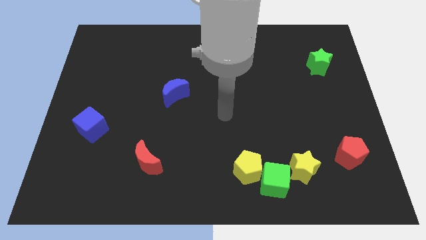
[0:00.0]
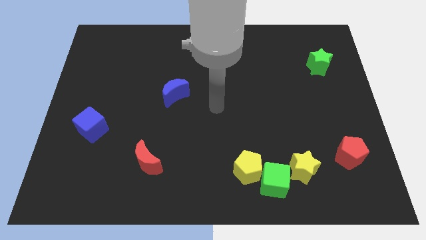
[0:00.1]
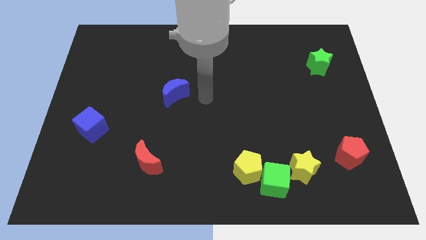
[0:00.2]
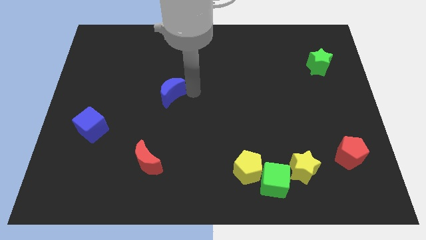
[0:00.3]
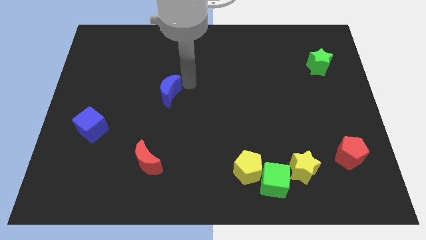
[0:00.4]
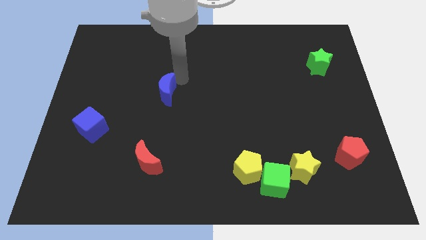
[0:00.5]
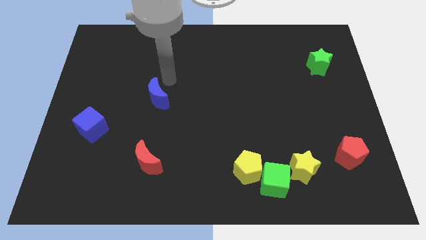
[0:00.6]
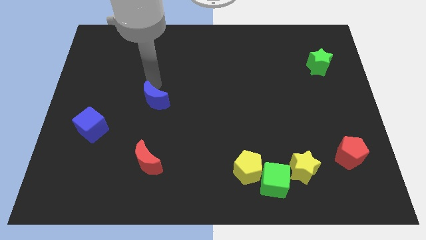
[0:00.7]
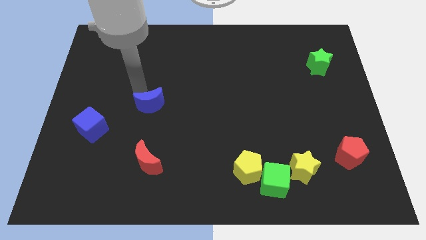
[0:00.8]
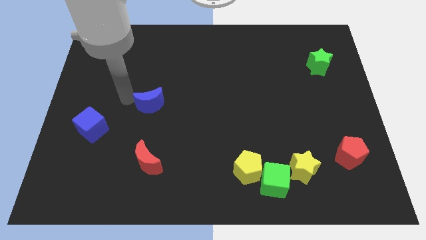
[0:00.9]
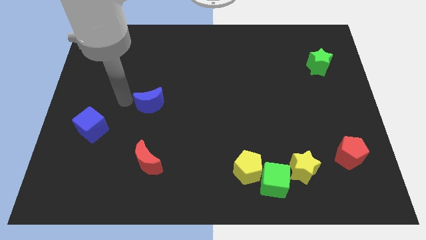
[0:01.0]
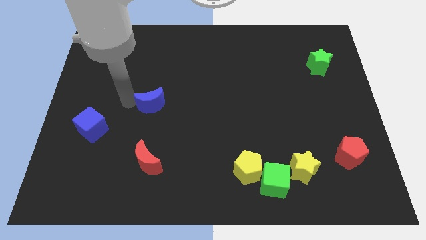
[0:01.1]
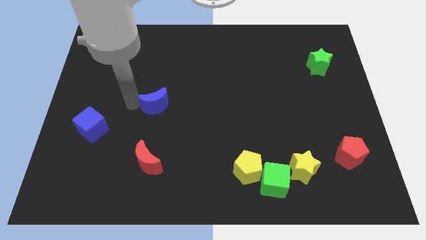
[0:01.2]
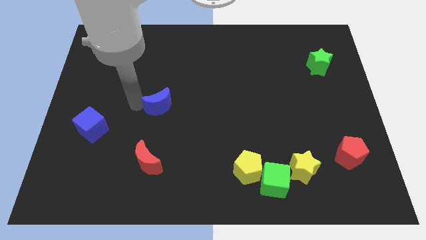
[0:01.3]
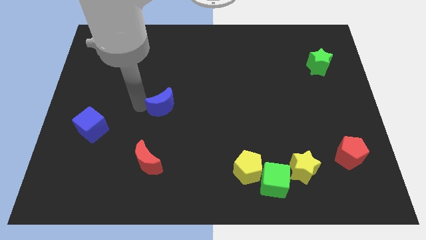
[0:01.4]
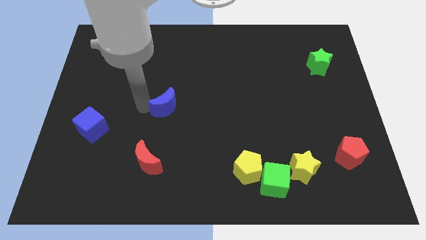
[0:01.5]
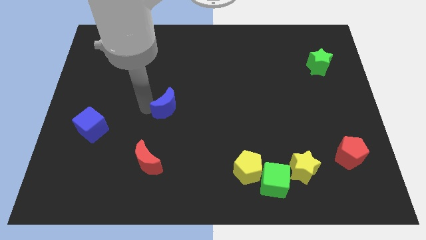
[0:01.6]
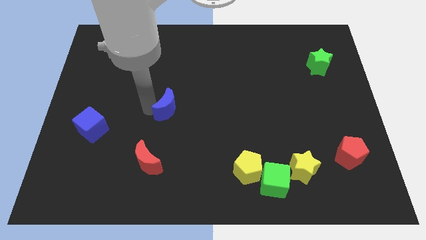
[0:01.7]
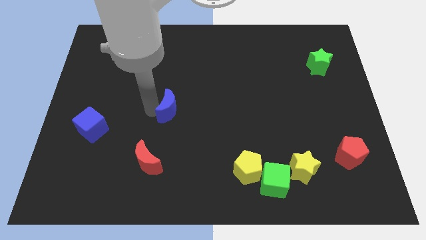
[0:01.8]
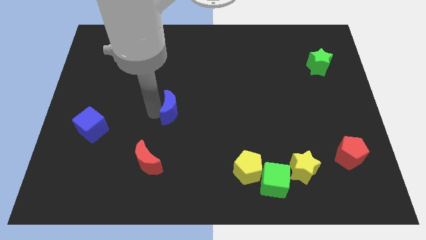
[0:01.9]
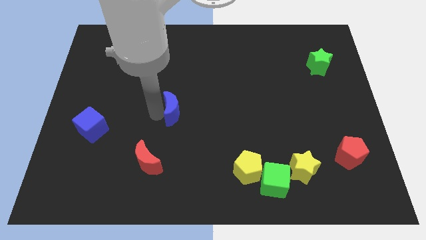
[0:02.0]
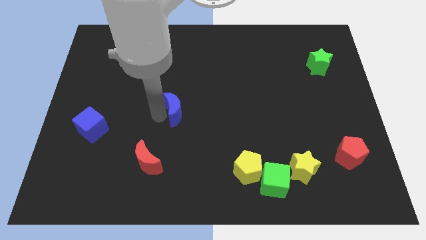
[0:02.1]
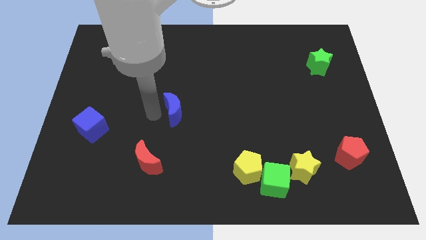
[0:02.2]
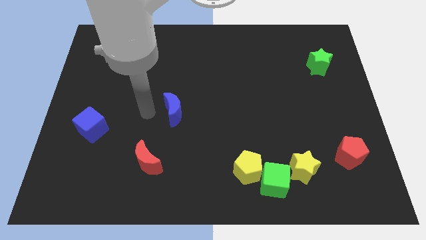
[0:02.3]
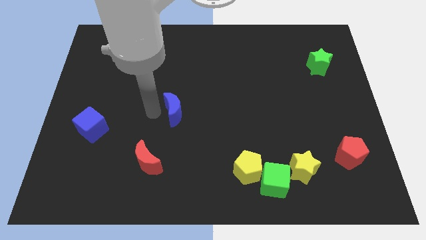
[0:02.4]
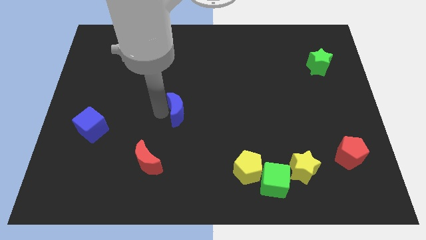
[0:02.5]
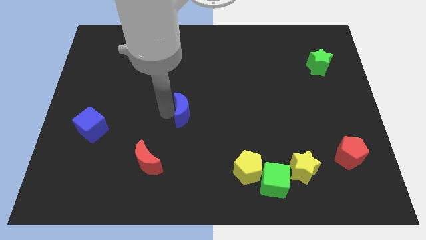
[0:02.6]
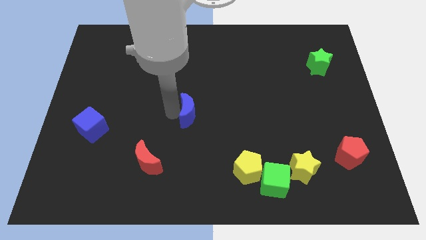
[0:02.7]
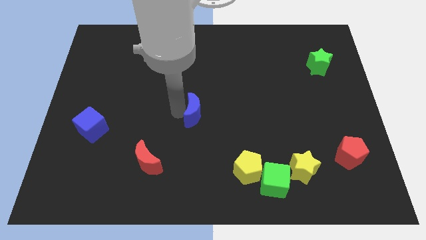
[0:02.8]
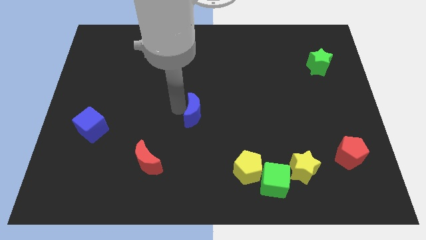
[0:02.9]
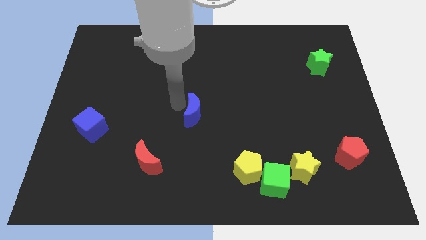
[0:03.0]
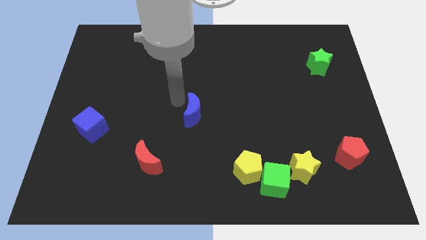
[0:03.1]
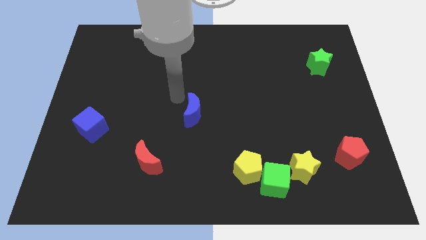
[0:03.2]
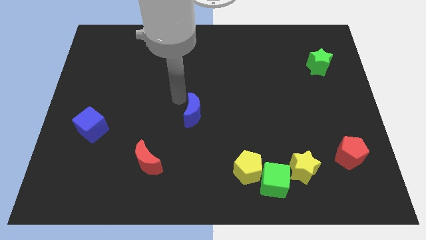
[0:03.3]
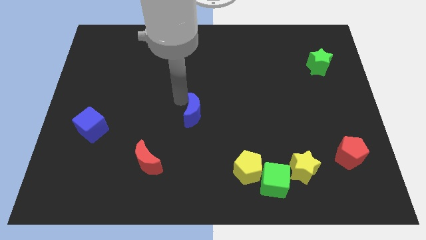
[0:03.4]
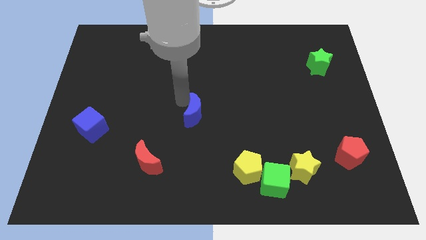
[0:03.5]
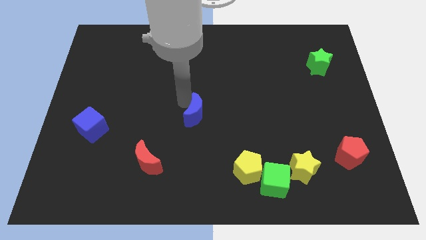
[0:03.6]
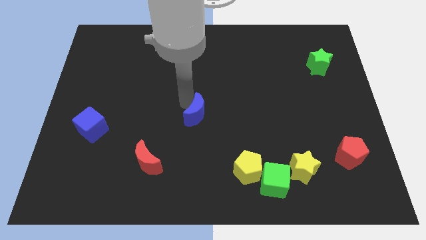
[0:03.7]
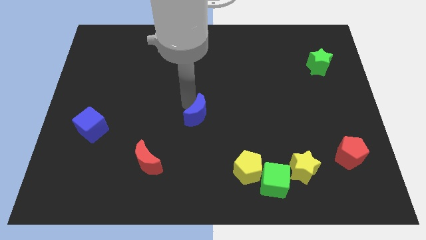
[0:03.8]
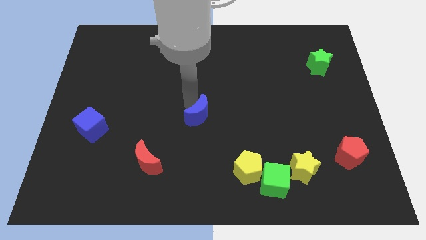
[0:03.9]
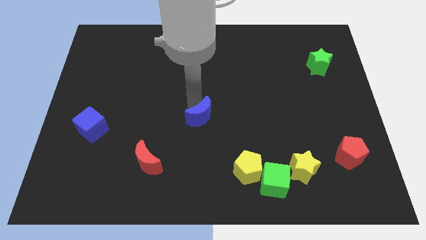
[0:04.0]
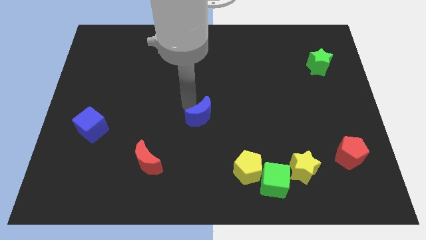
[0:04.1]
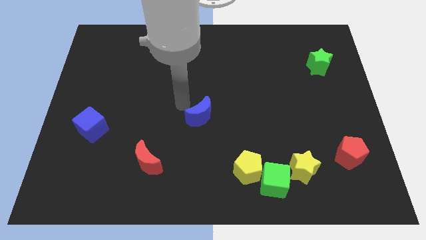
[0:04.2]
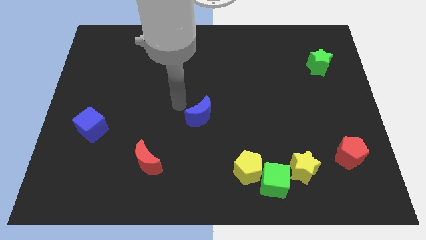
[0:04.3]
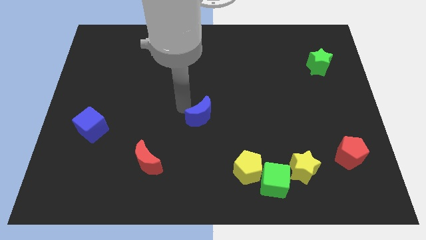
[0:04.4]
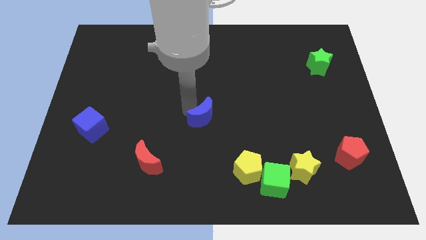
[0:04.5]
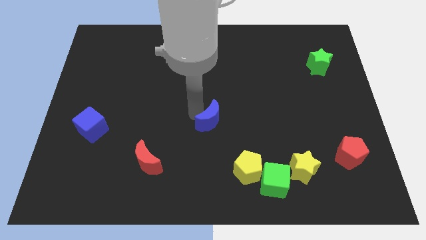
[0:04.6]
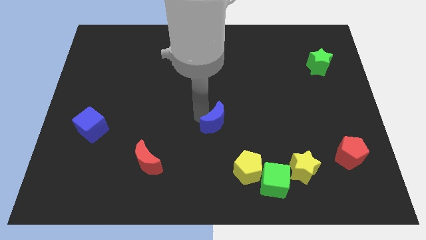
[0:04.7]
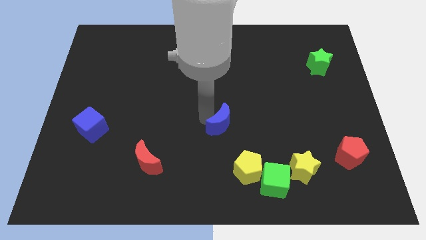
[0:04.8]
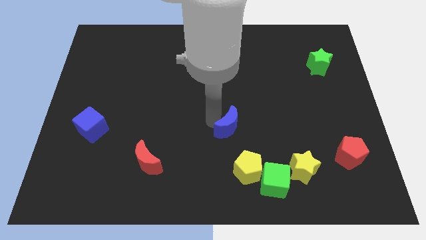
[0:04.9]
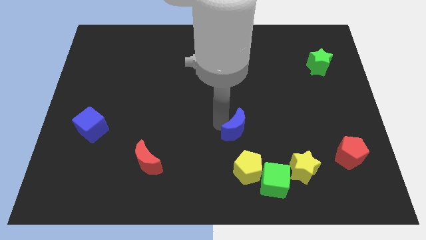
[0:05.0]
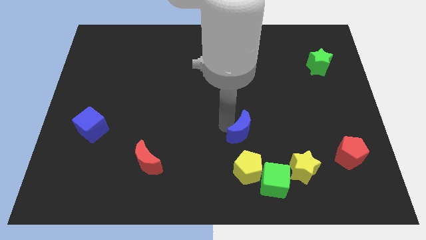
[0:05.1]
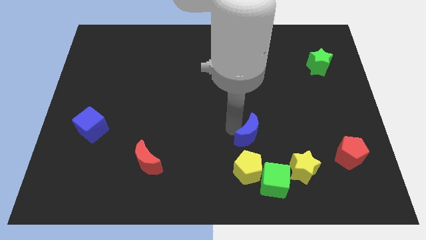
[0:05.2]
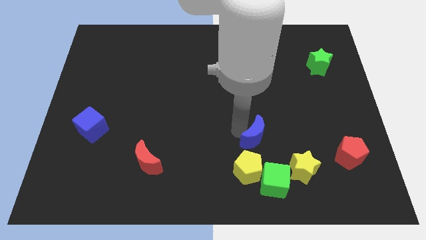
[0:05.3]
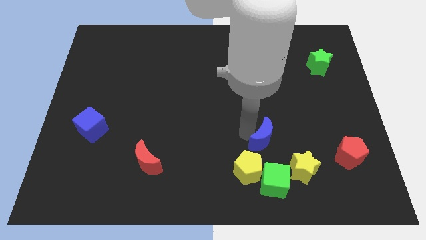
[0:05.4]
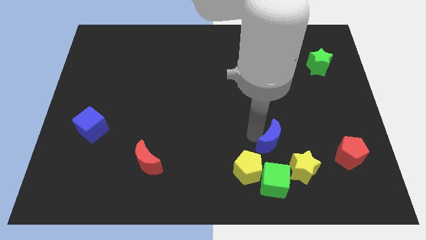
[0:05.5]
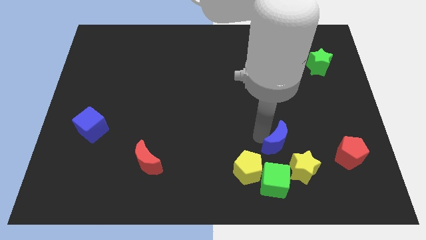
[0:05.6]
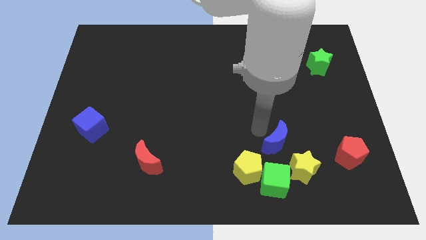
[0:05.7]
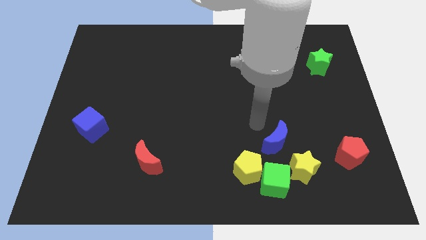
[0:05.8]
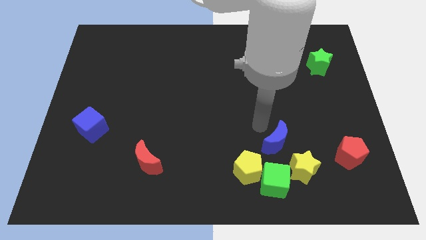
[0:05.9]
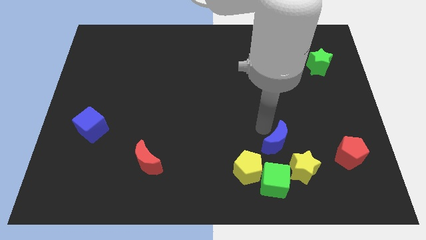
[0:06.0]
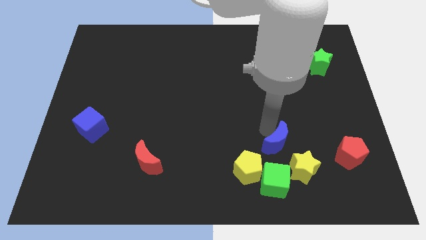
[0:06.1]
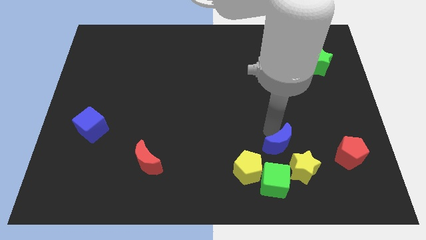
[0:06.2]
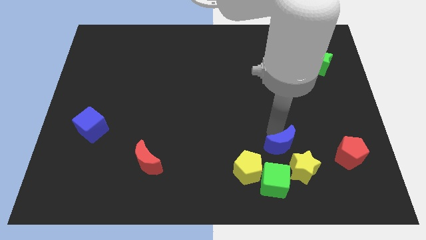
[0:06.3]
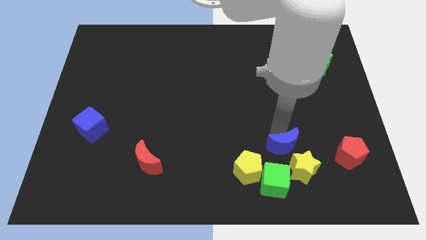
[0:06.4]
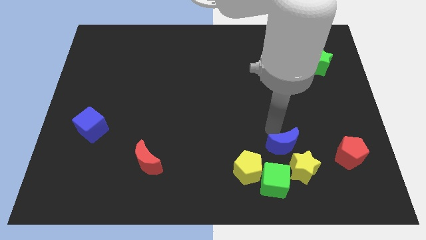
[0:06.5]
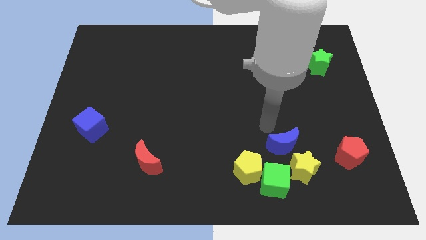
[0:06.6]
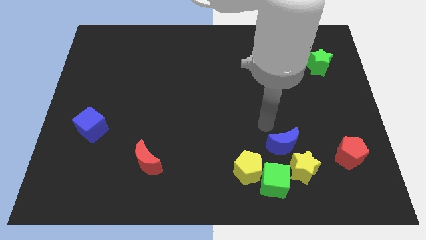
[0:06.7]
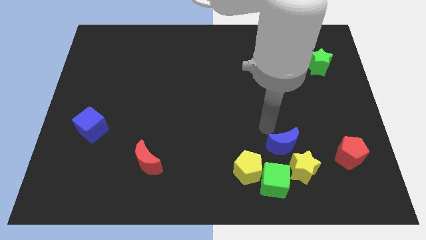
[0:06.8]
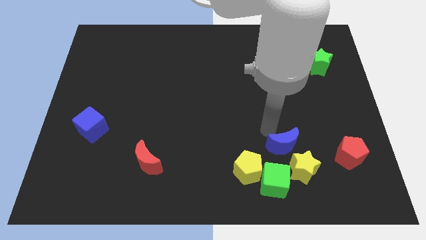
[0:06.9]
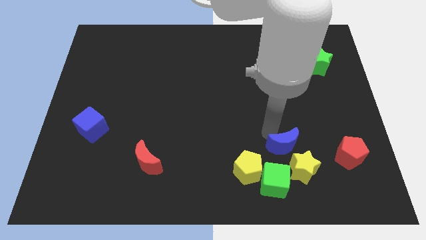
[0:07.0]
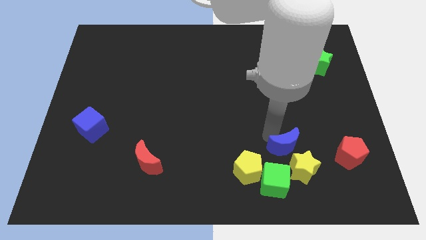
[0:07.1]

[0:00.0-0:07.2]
push the blue moon close to the yellow star
